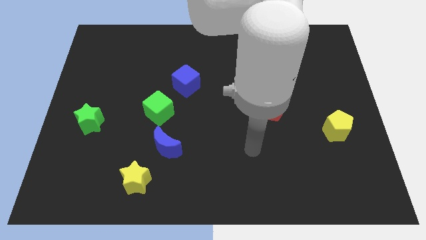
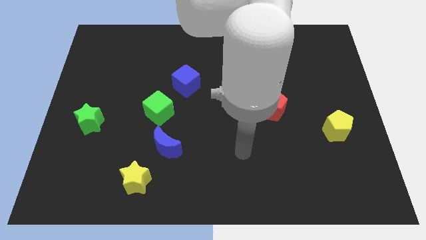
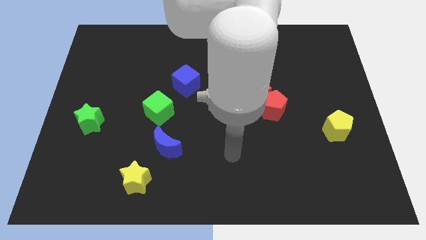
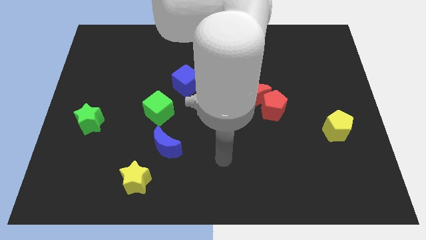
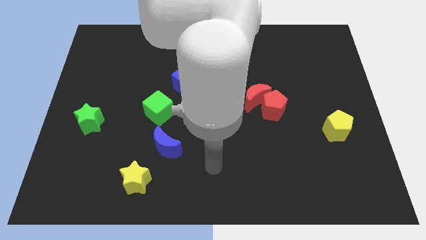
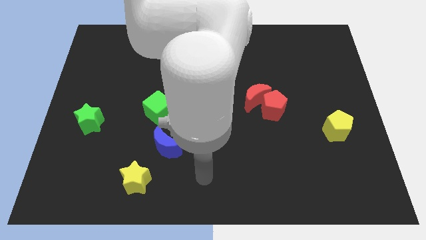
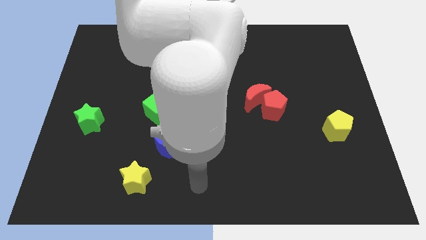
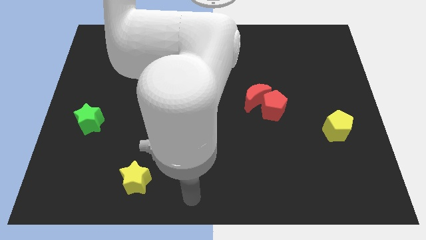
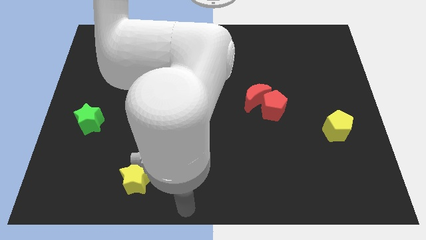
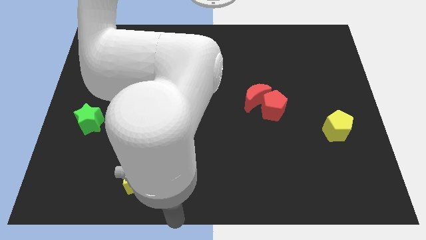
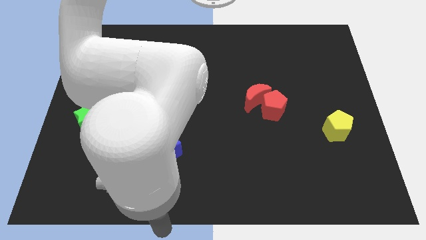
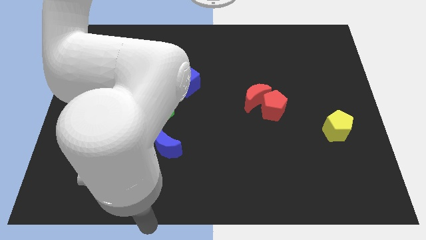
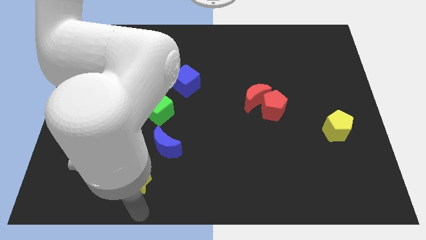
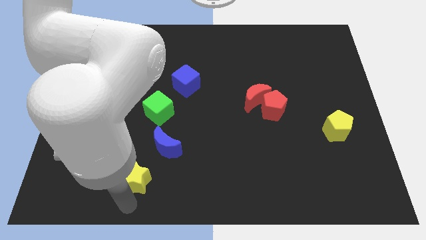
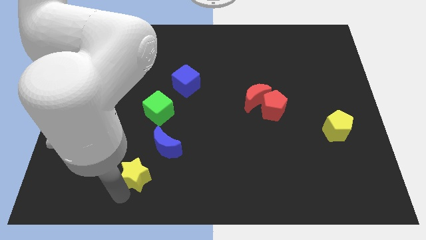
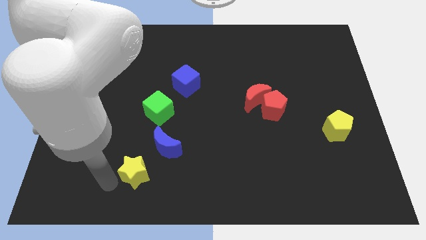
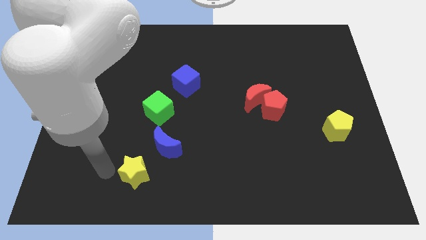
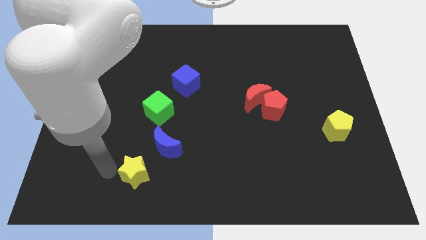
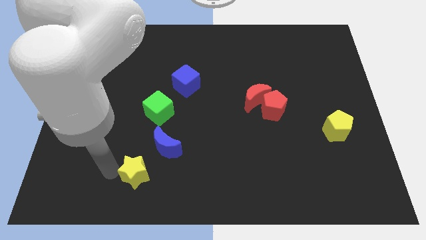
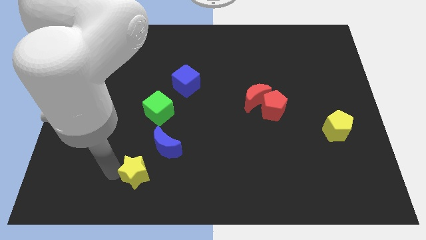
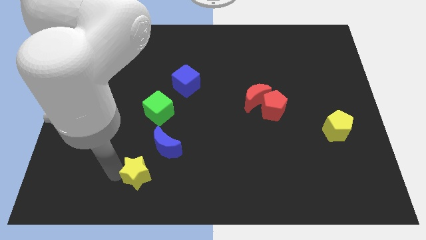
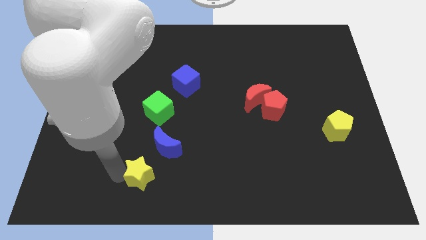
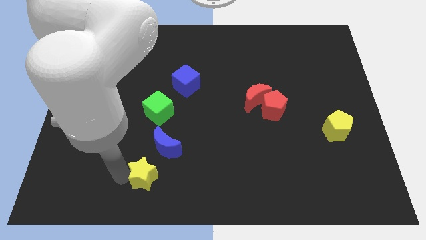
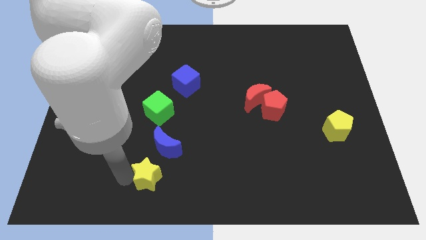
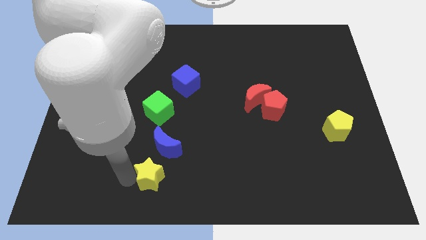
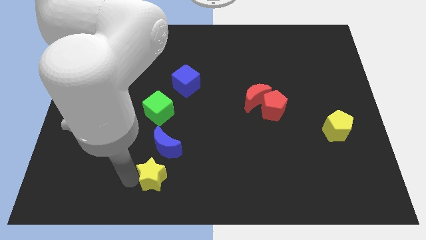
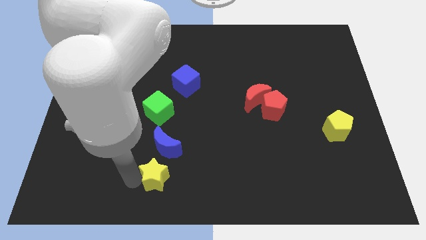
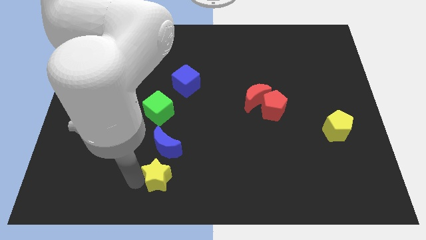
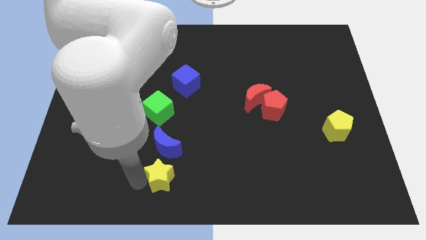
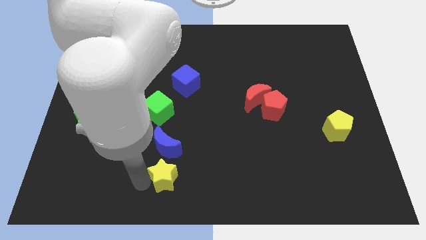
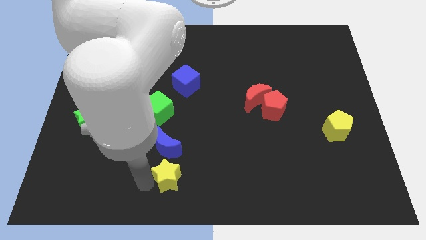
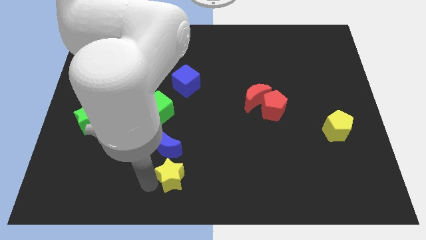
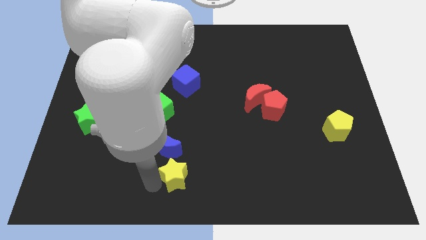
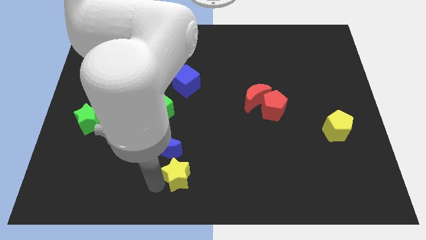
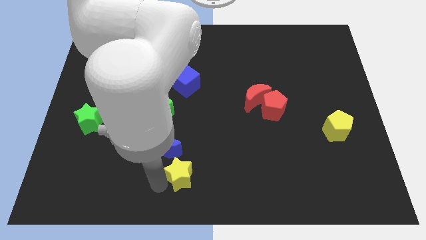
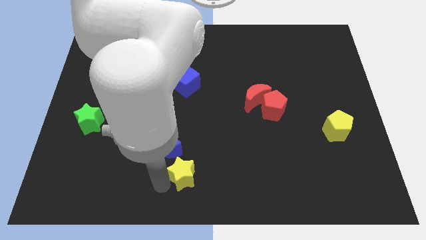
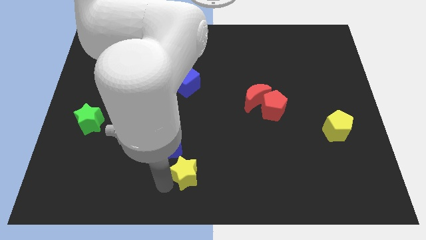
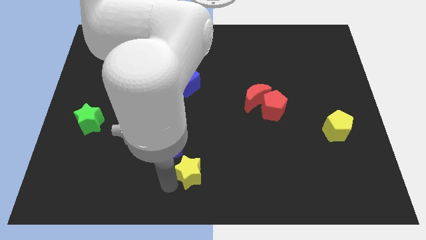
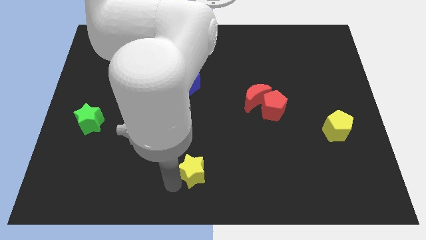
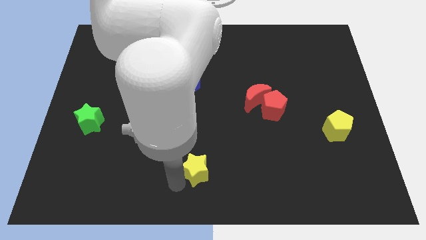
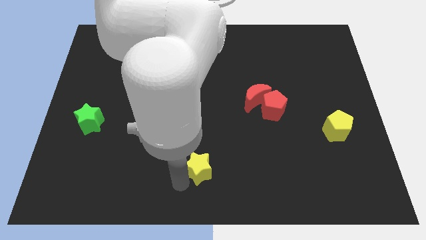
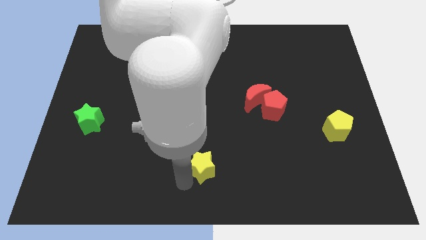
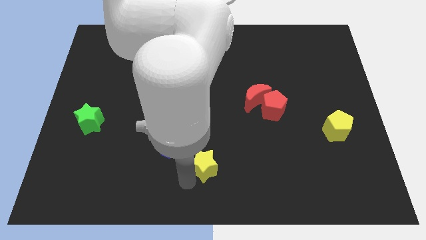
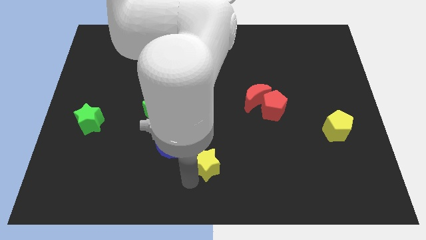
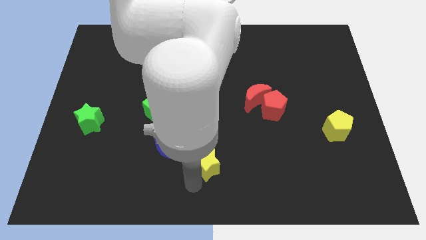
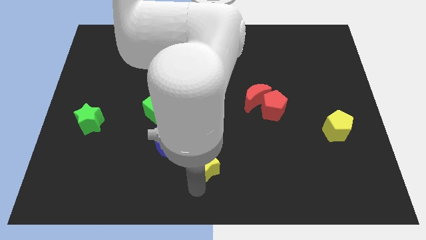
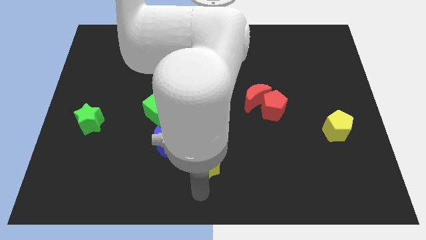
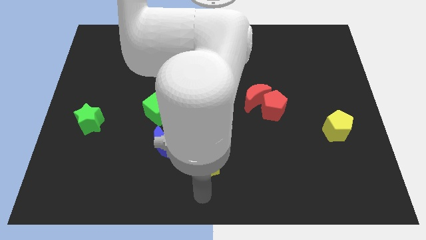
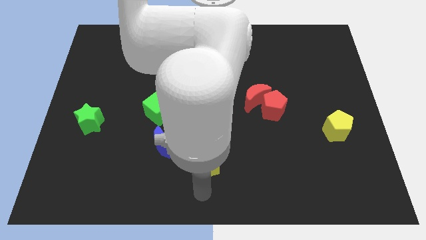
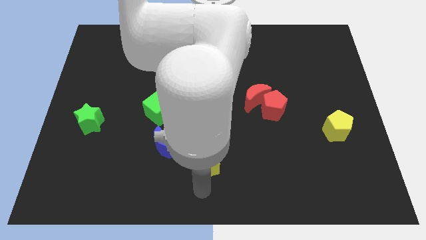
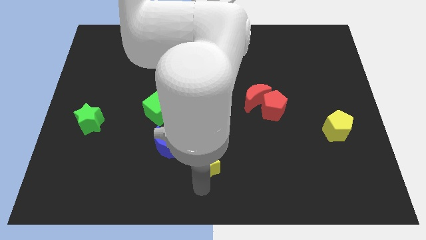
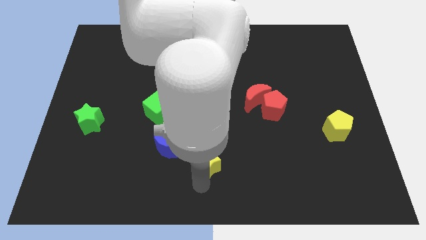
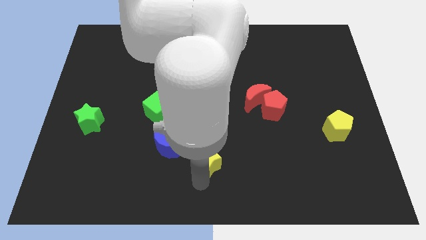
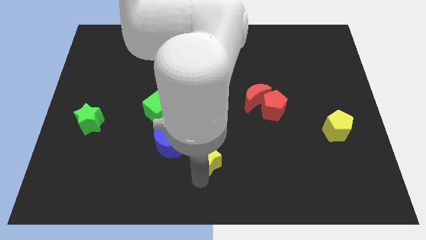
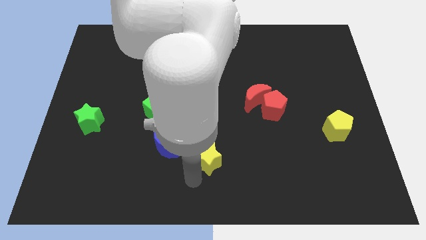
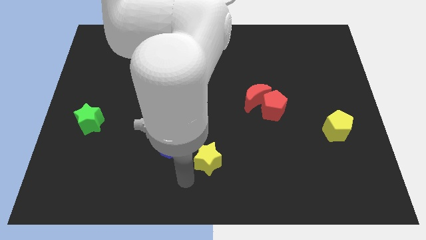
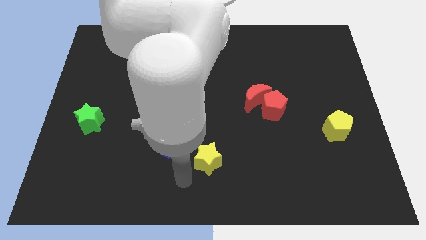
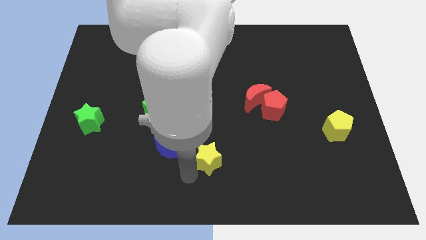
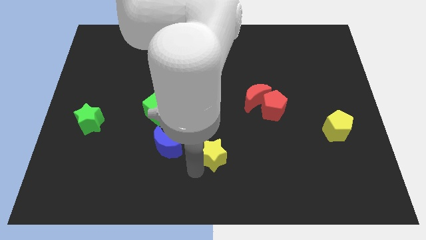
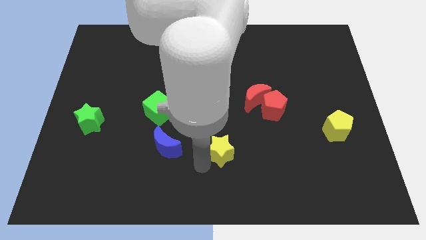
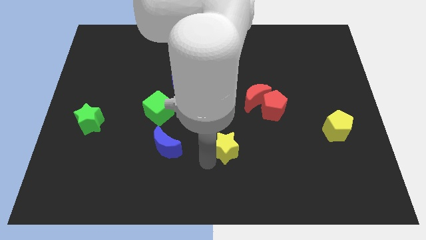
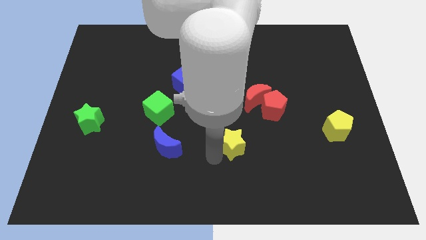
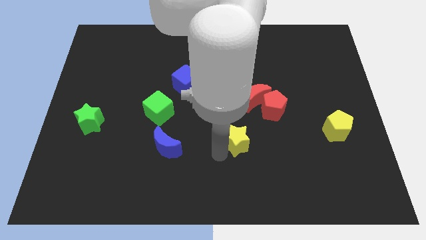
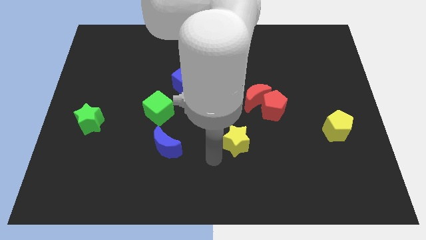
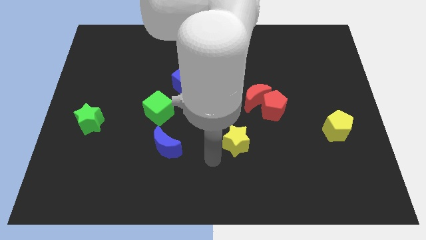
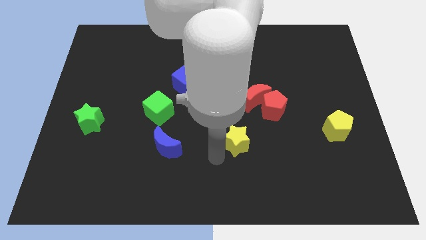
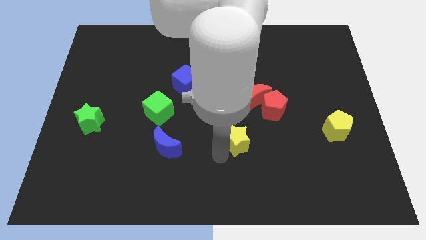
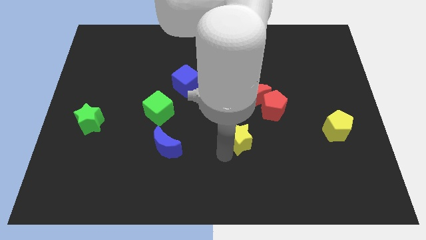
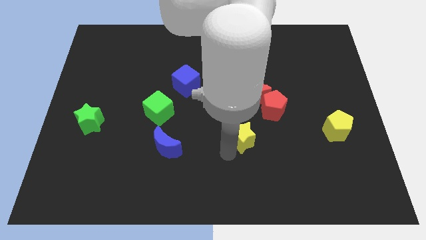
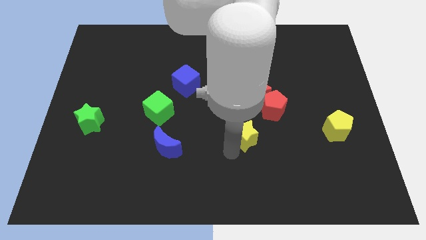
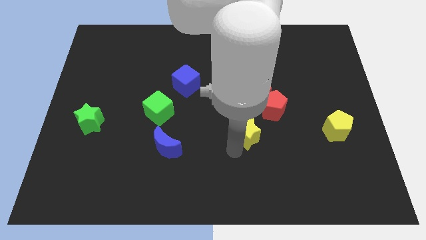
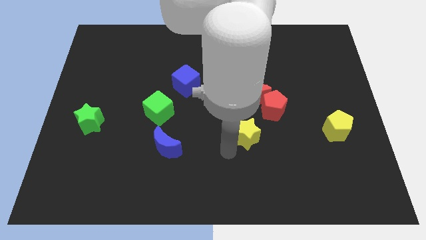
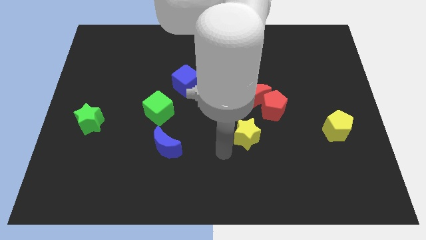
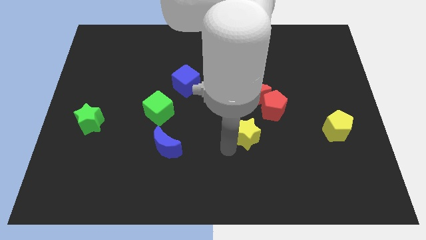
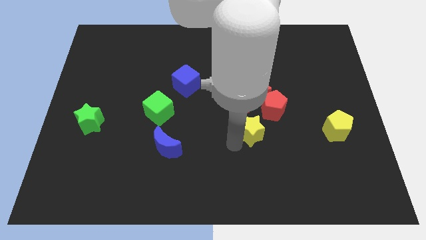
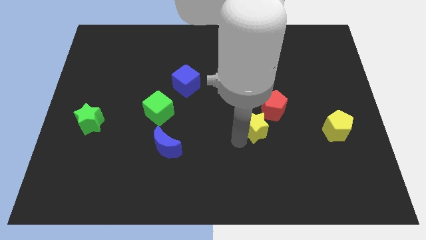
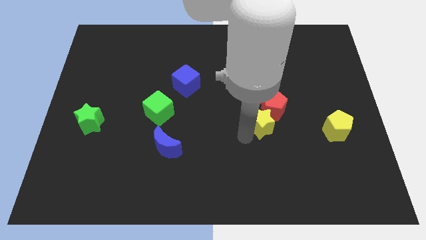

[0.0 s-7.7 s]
move the yellow star next to the red pentagon
